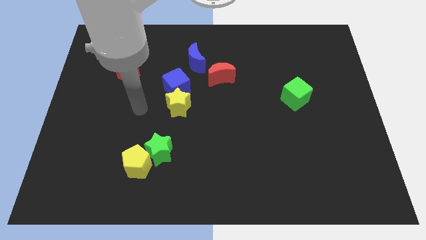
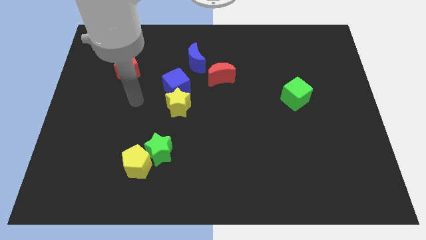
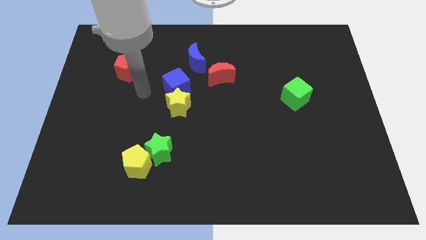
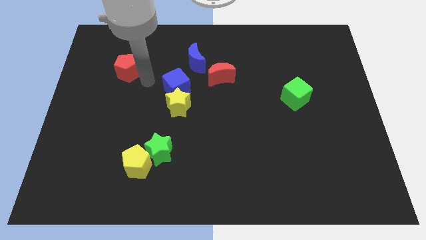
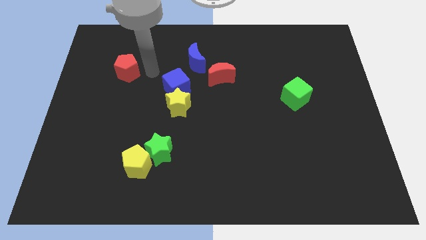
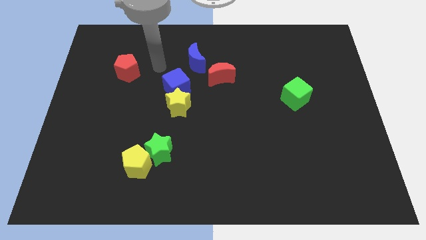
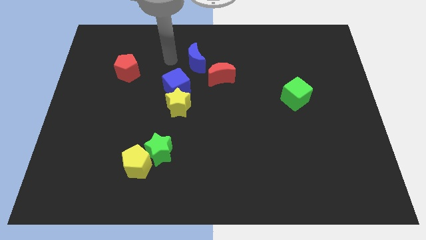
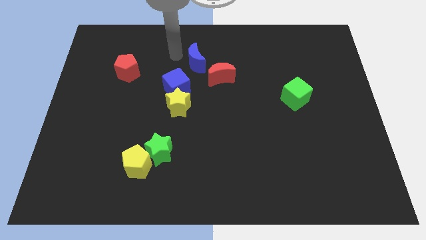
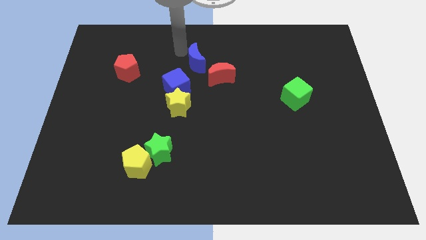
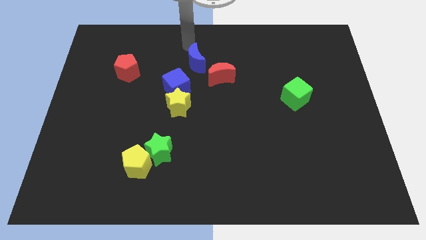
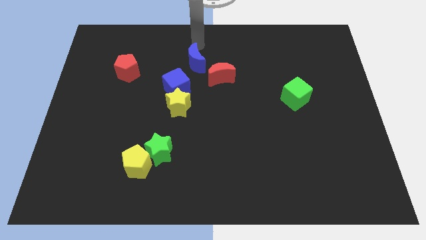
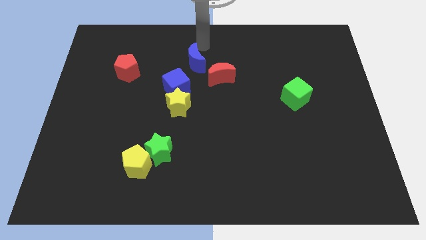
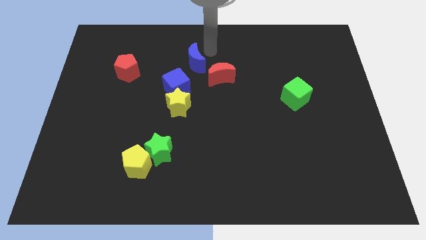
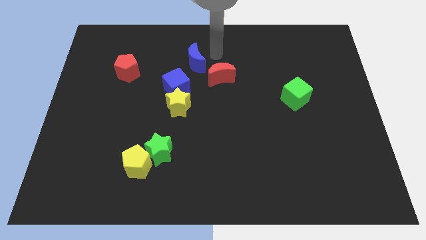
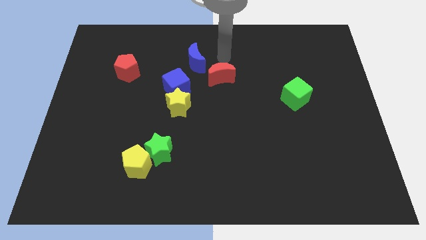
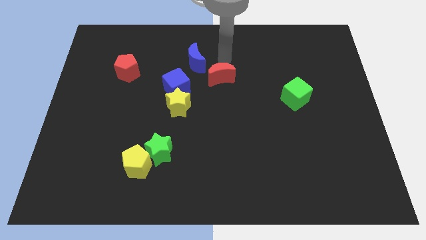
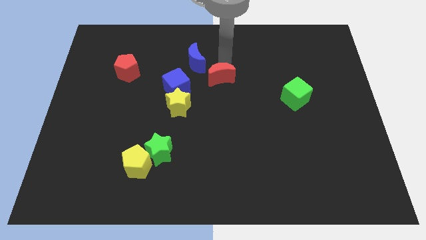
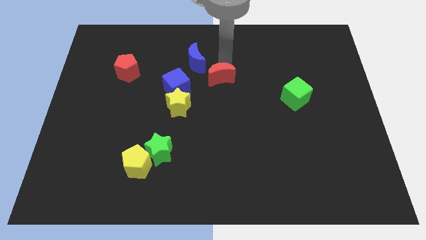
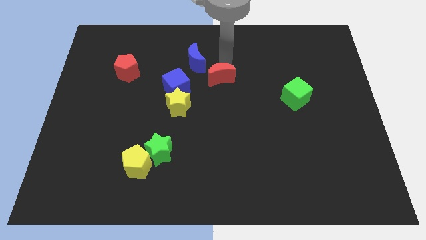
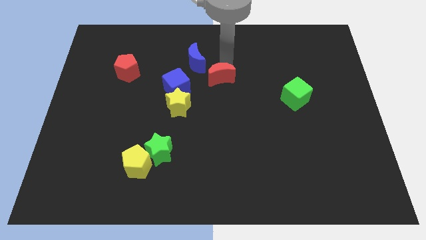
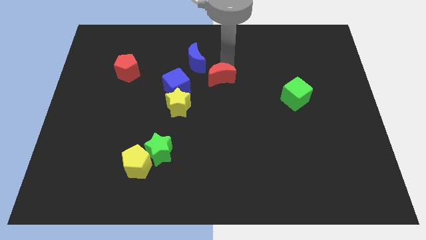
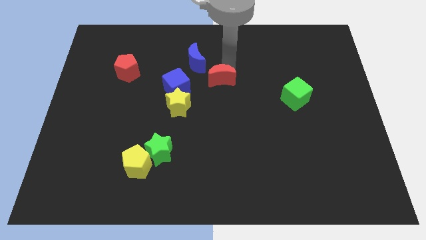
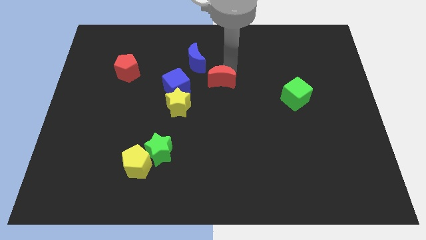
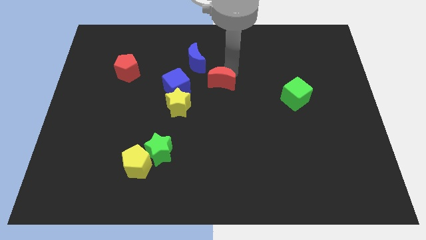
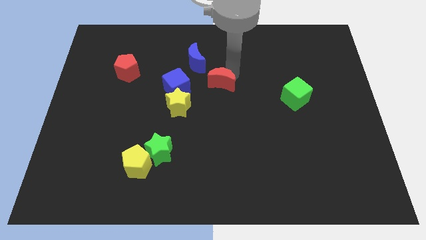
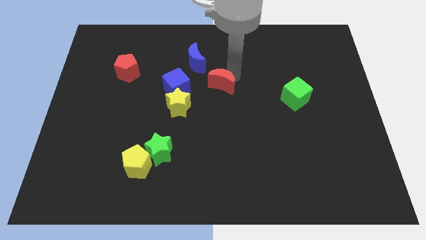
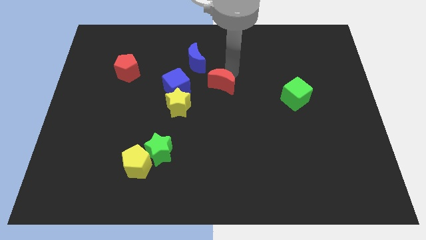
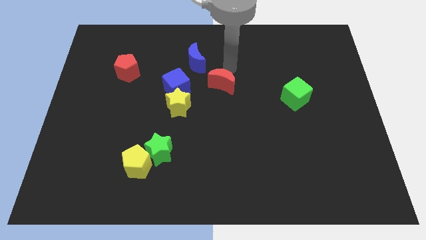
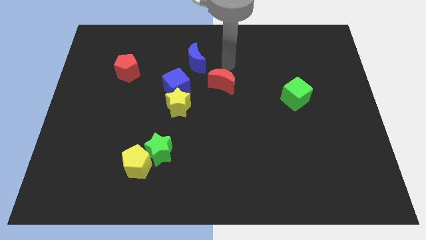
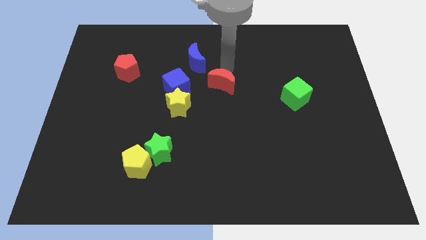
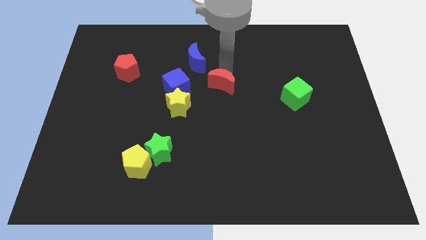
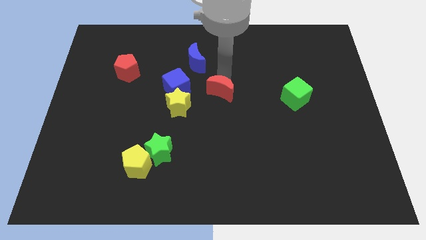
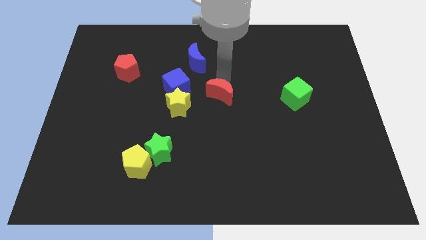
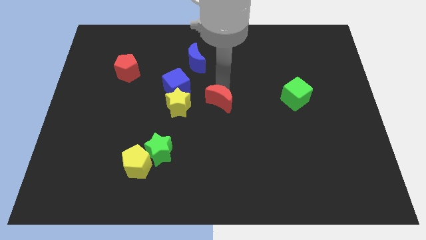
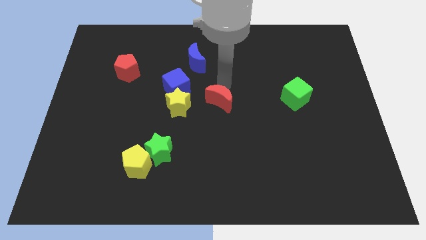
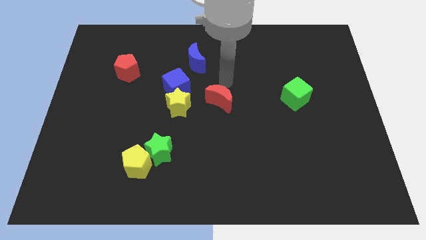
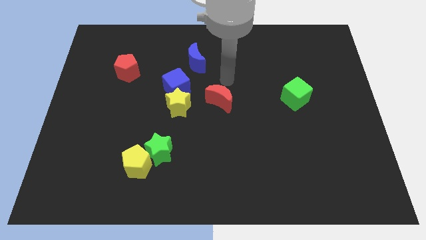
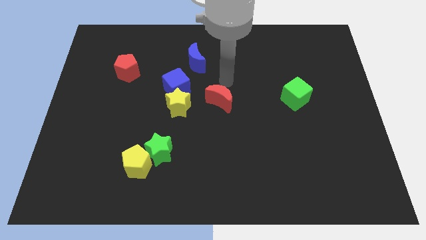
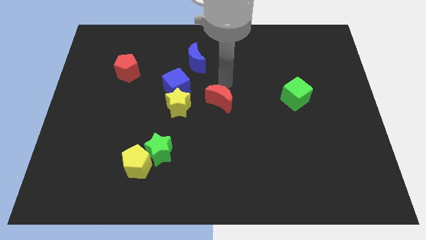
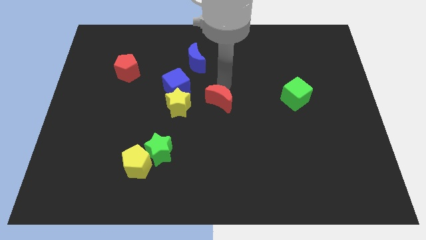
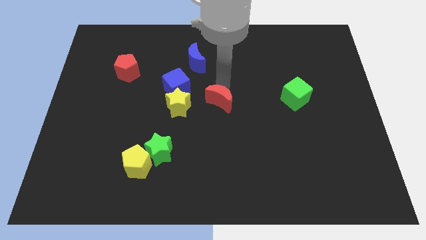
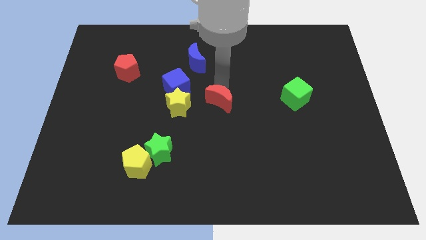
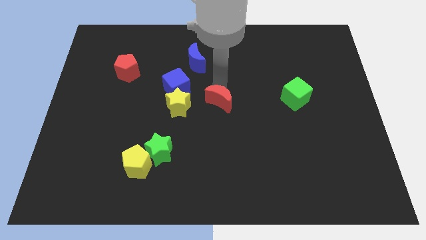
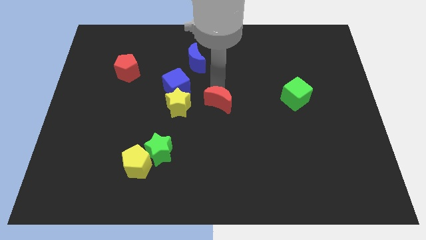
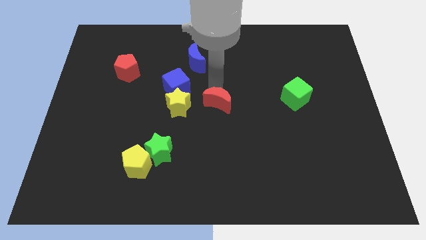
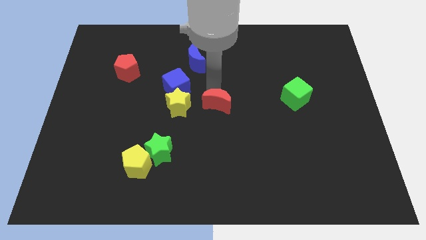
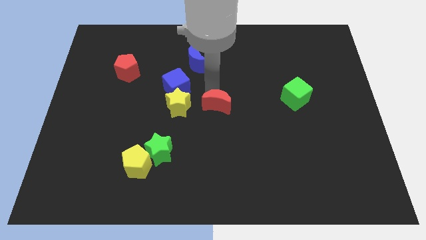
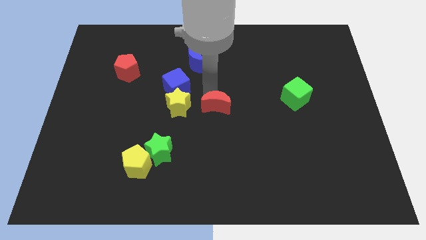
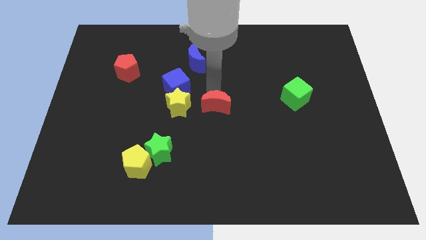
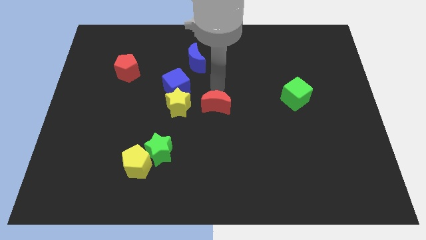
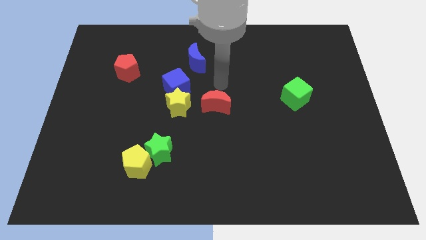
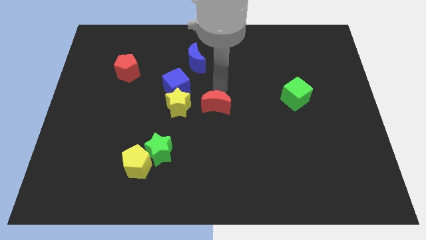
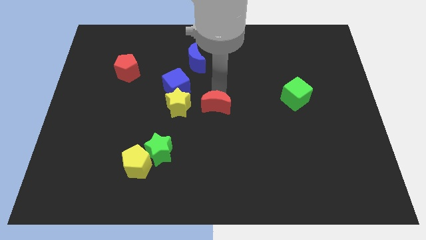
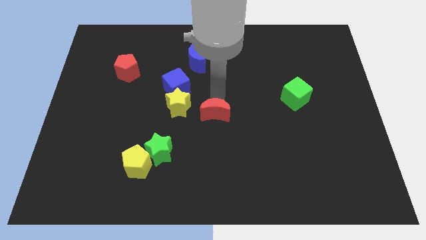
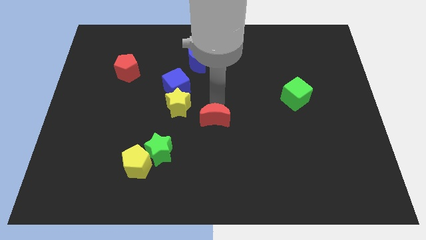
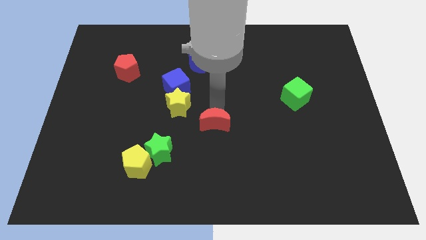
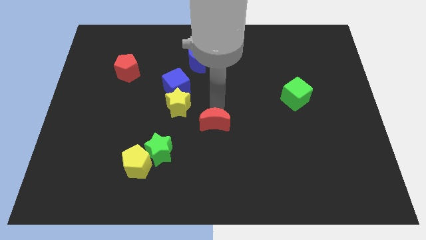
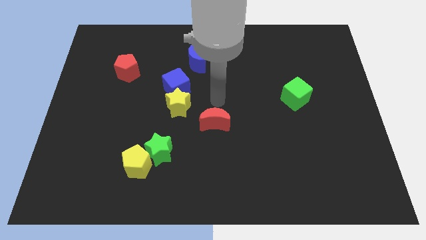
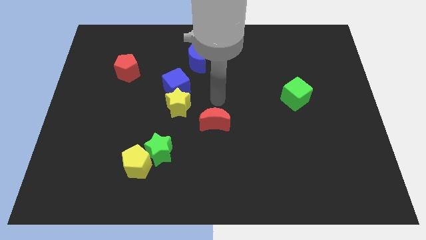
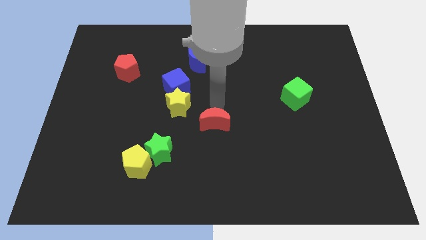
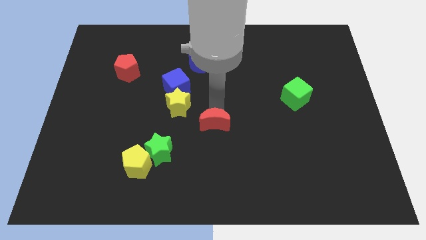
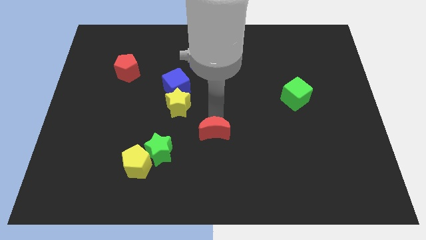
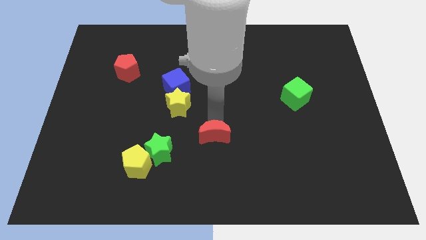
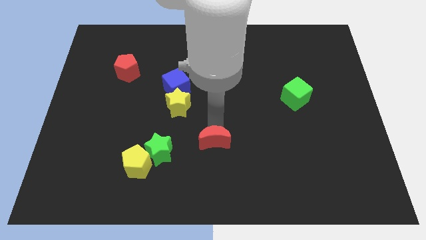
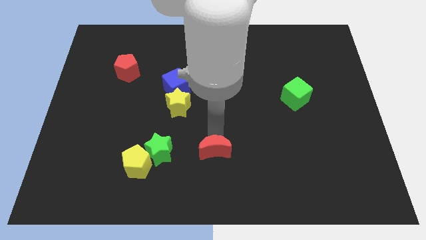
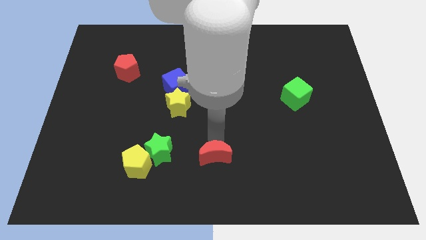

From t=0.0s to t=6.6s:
slide the red moon to the bottom side
